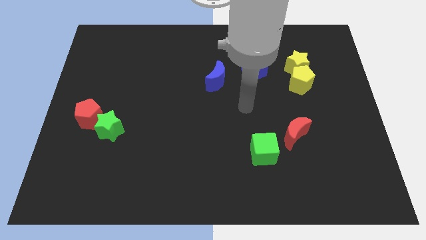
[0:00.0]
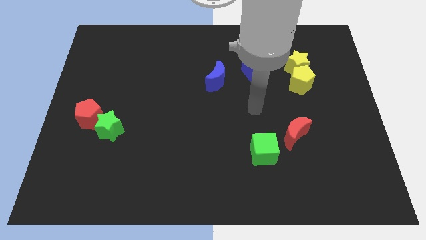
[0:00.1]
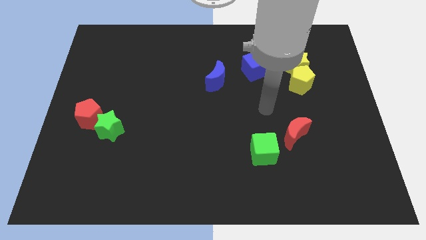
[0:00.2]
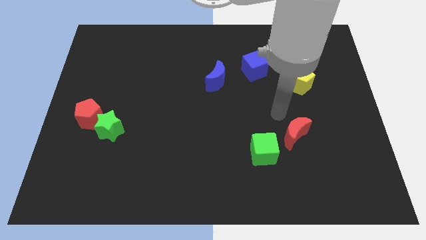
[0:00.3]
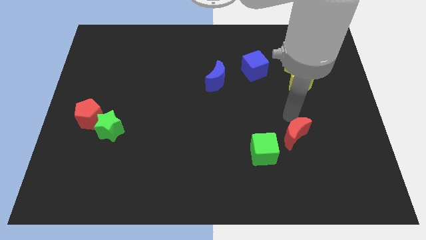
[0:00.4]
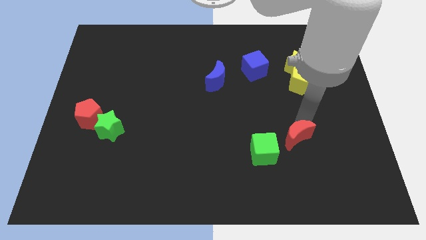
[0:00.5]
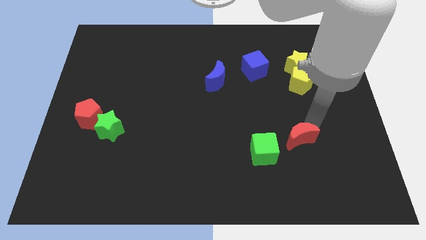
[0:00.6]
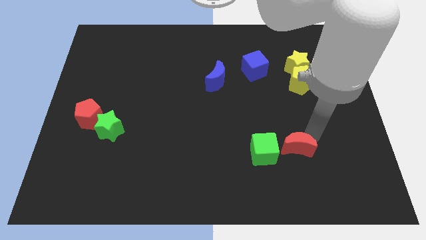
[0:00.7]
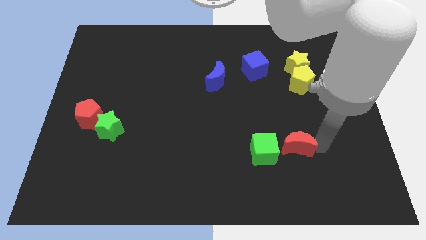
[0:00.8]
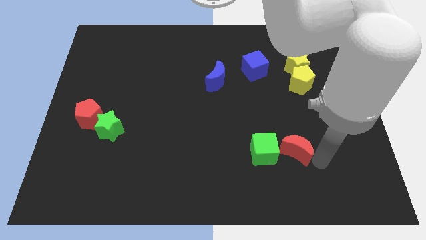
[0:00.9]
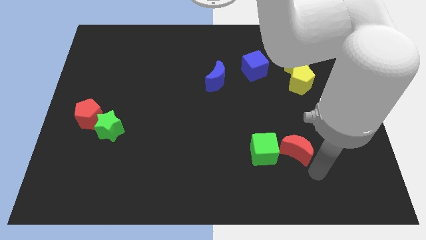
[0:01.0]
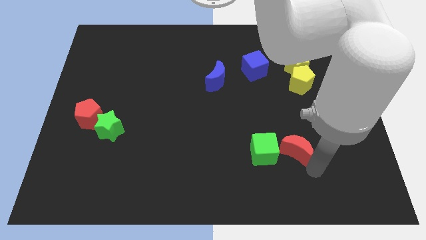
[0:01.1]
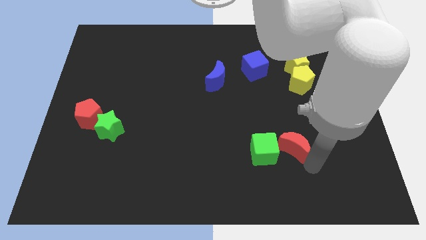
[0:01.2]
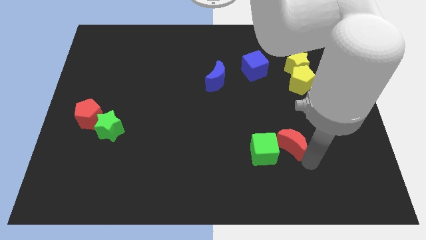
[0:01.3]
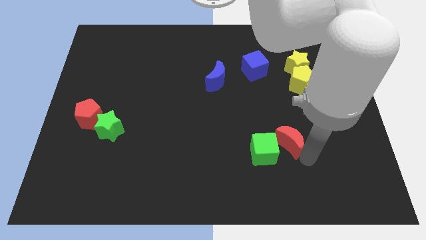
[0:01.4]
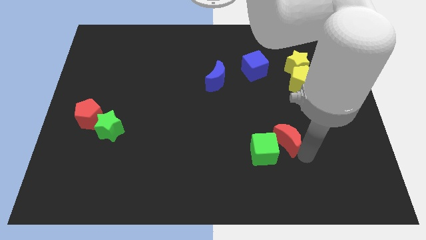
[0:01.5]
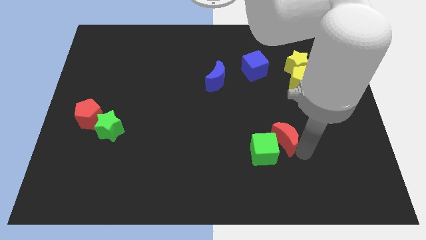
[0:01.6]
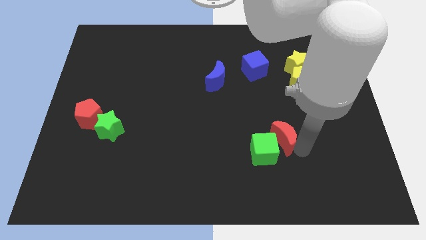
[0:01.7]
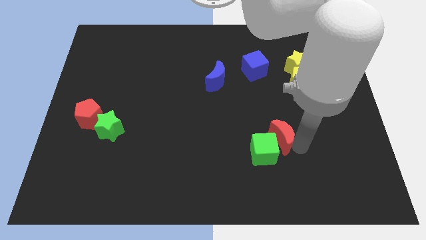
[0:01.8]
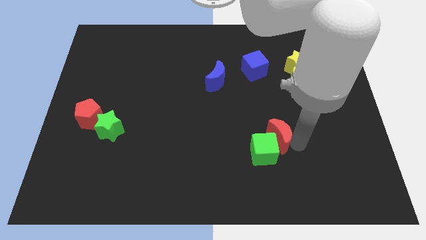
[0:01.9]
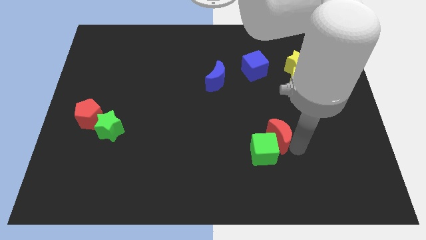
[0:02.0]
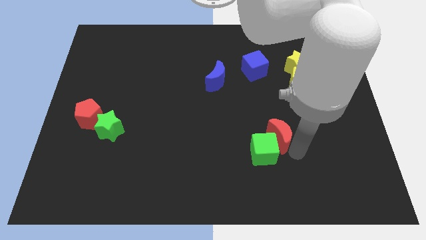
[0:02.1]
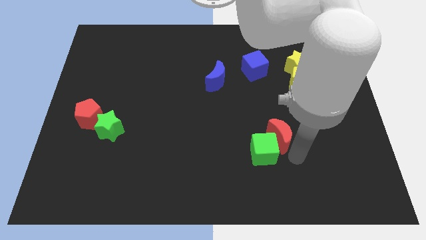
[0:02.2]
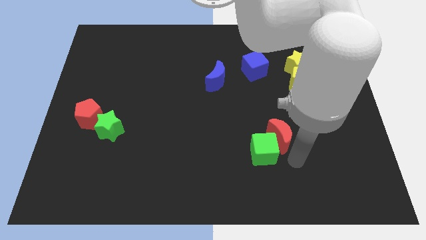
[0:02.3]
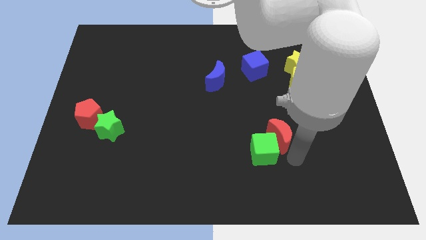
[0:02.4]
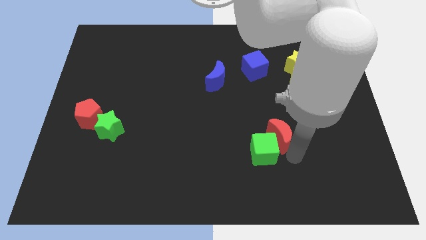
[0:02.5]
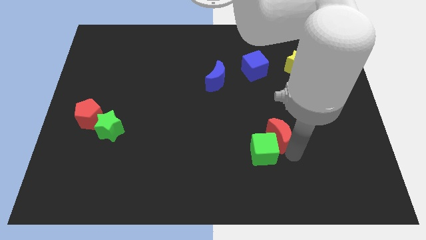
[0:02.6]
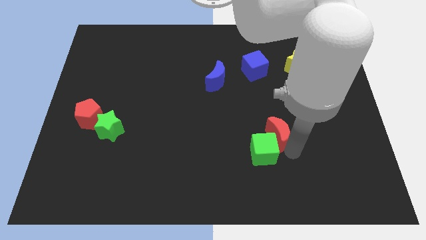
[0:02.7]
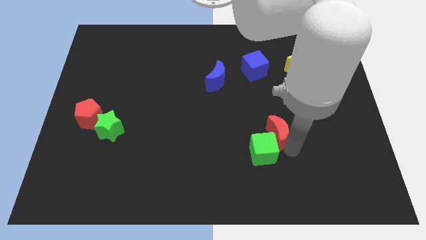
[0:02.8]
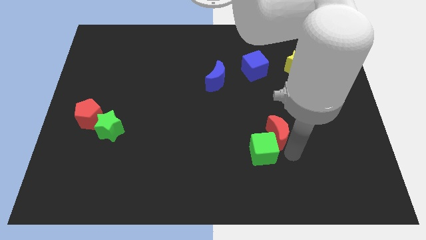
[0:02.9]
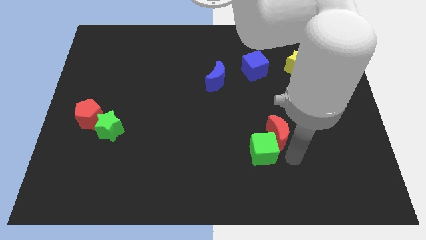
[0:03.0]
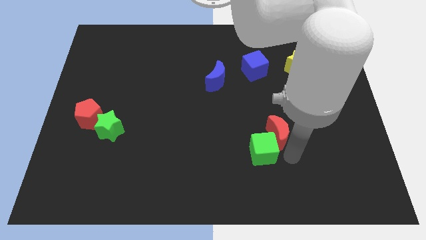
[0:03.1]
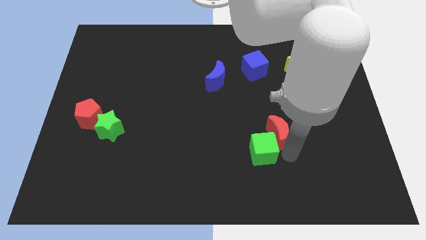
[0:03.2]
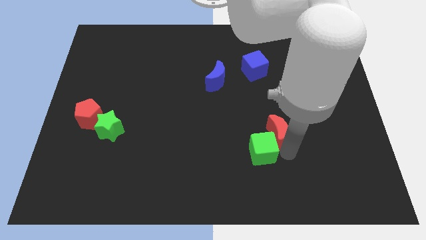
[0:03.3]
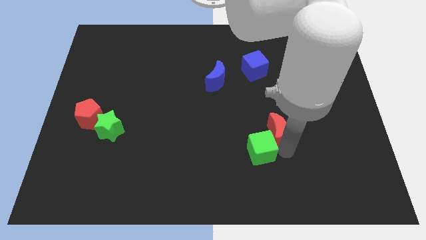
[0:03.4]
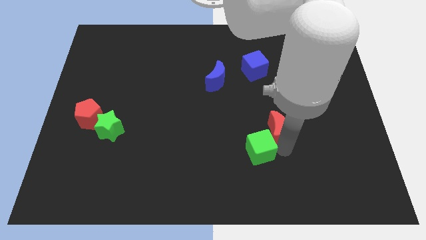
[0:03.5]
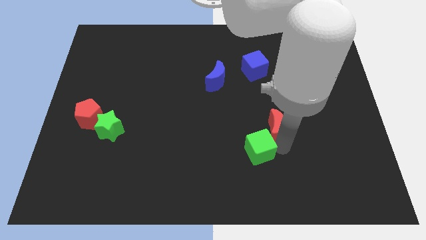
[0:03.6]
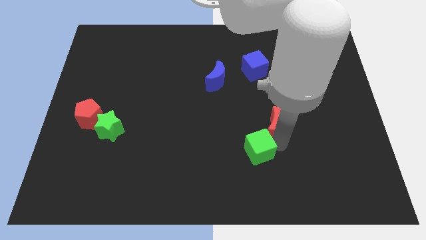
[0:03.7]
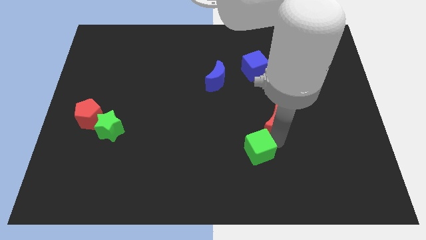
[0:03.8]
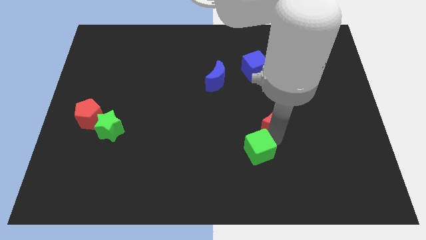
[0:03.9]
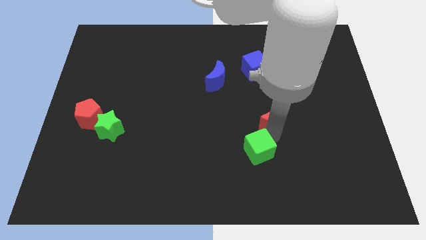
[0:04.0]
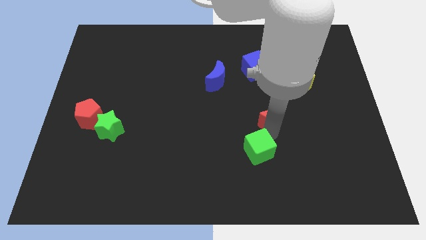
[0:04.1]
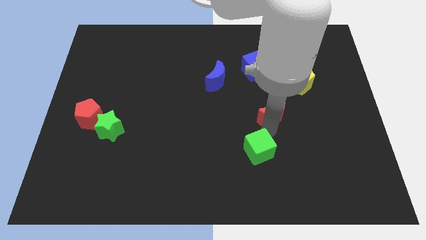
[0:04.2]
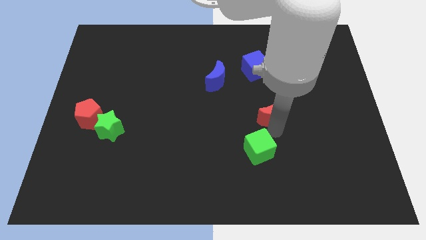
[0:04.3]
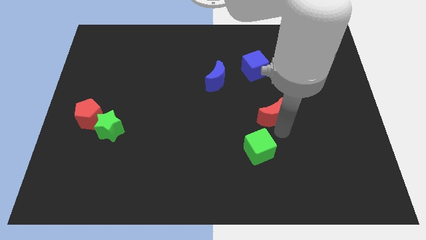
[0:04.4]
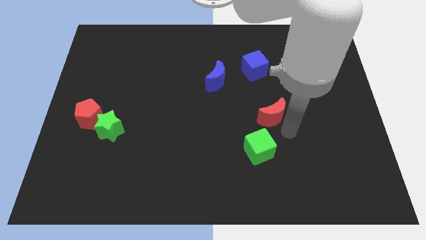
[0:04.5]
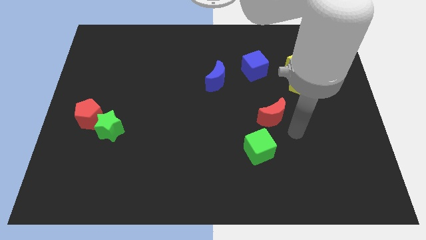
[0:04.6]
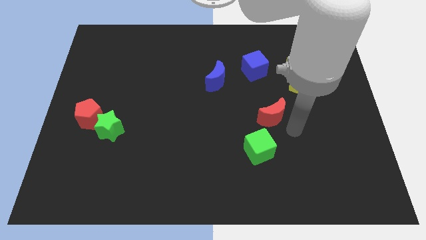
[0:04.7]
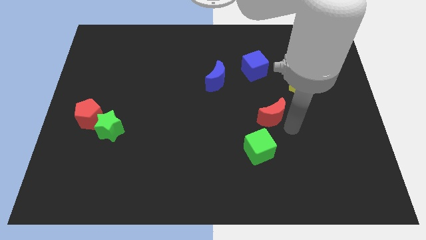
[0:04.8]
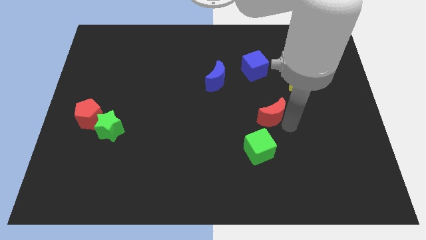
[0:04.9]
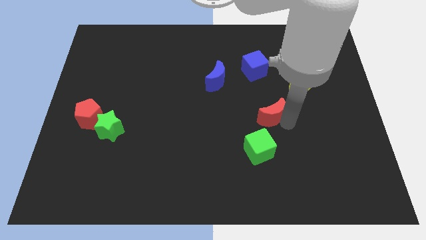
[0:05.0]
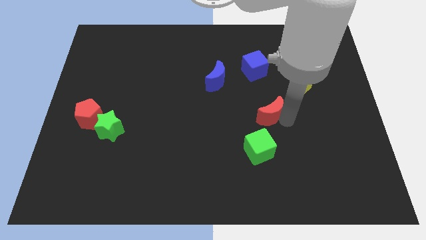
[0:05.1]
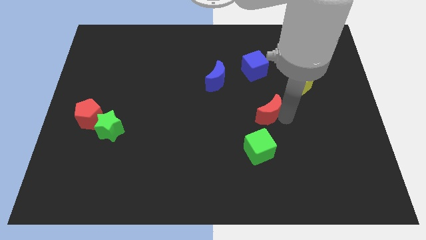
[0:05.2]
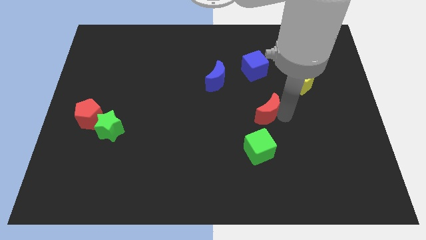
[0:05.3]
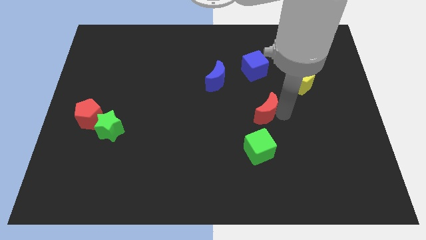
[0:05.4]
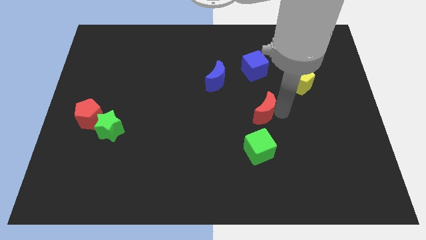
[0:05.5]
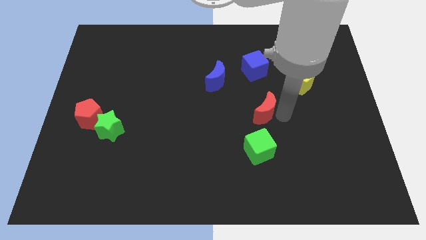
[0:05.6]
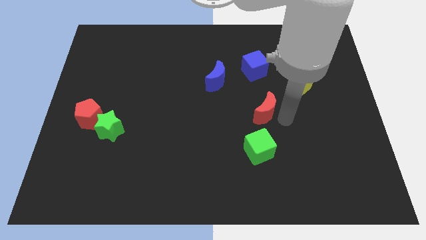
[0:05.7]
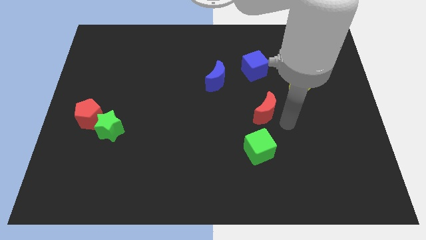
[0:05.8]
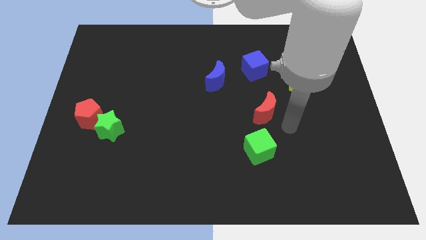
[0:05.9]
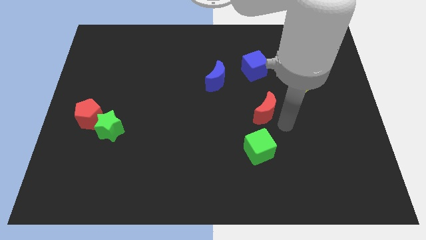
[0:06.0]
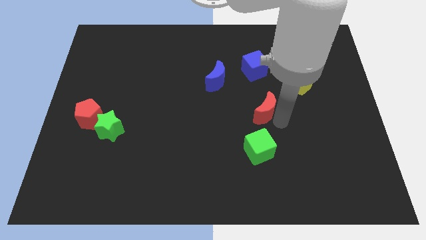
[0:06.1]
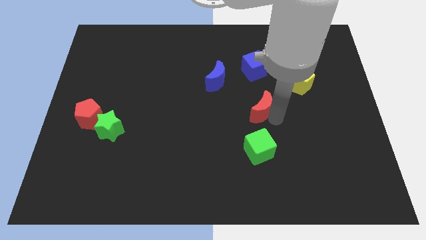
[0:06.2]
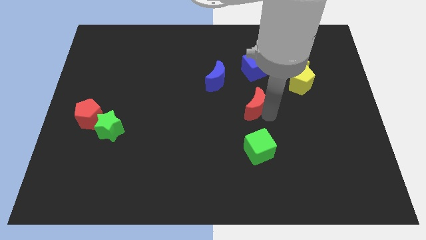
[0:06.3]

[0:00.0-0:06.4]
push the red moon to the bottom right side of the blue moon
